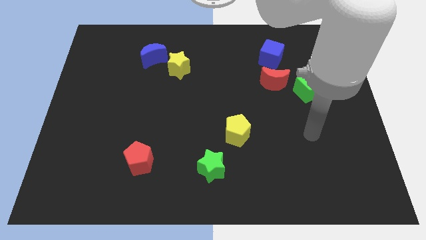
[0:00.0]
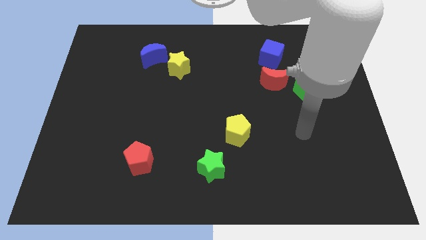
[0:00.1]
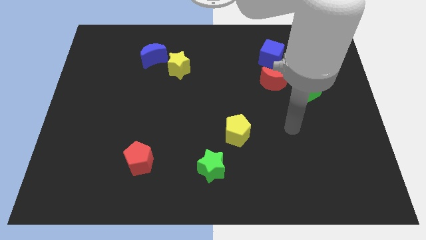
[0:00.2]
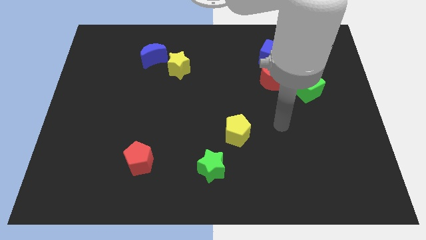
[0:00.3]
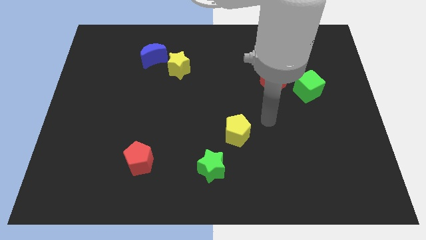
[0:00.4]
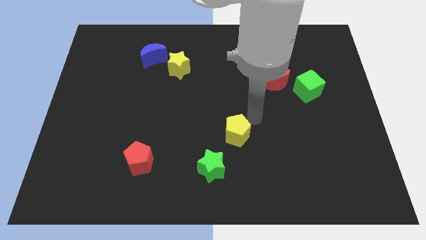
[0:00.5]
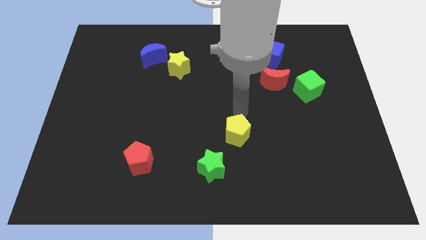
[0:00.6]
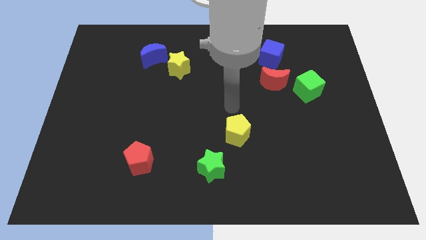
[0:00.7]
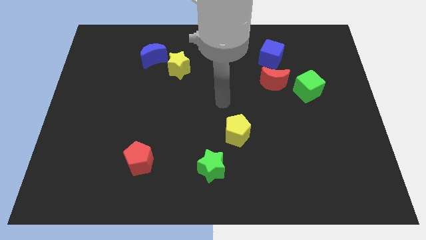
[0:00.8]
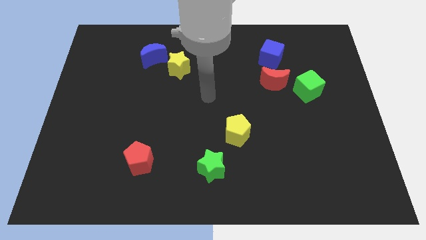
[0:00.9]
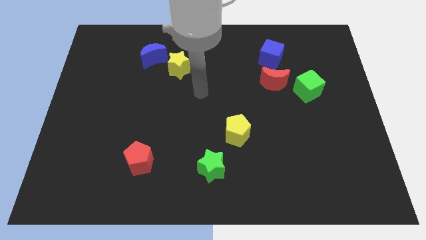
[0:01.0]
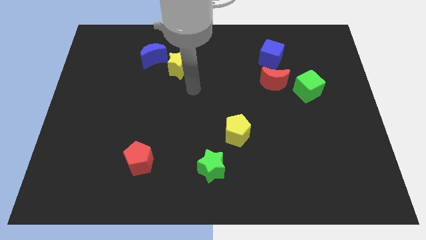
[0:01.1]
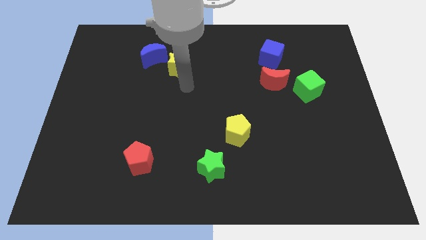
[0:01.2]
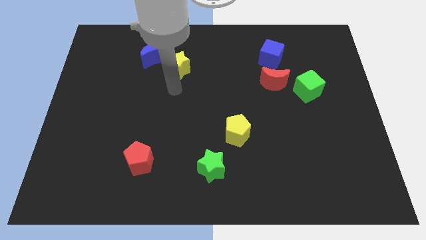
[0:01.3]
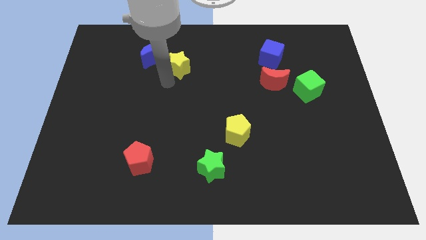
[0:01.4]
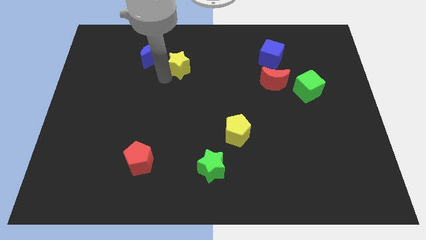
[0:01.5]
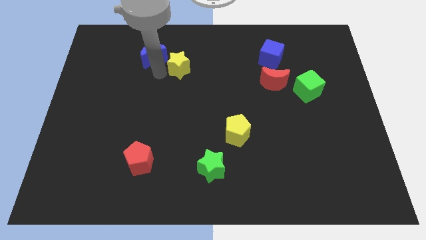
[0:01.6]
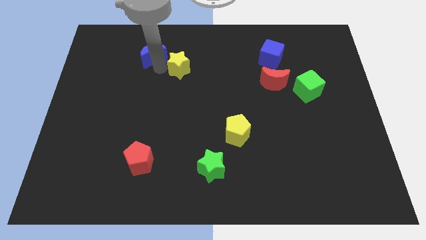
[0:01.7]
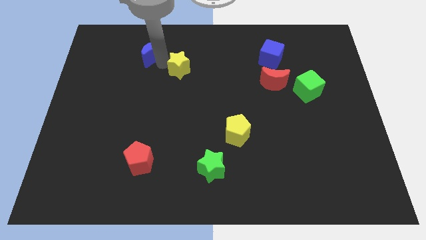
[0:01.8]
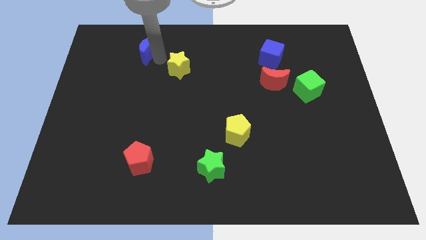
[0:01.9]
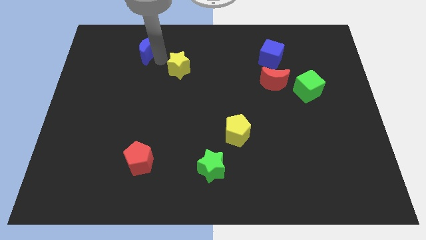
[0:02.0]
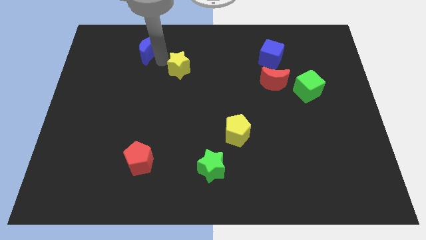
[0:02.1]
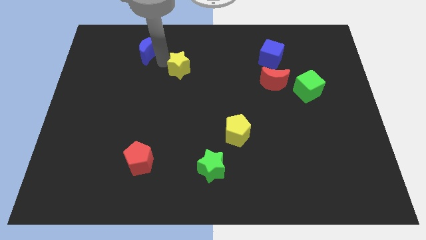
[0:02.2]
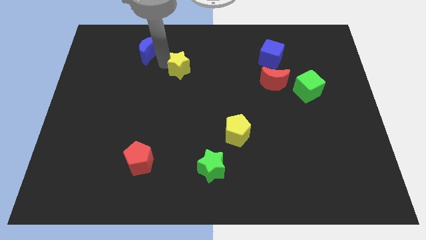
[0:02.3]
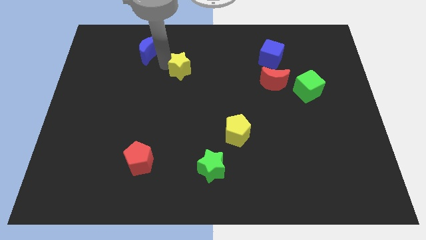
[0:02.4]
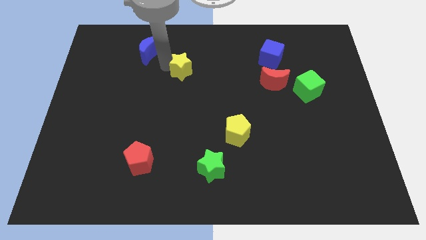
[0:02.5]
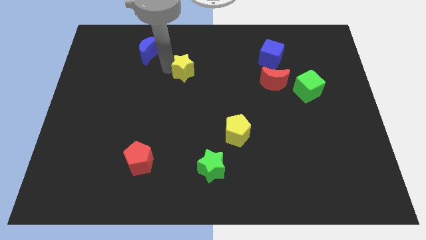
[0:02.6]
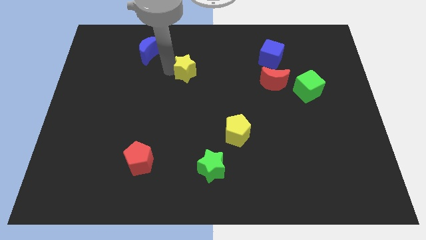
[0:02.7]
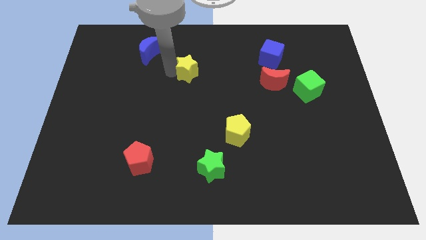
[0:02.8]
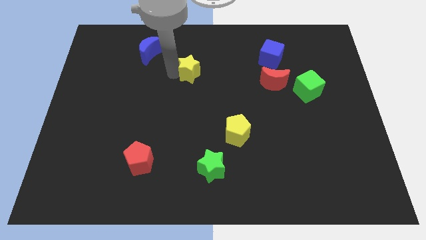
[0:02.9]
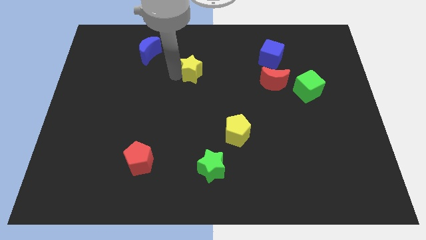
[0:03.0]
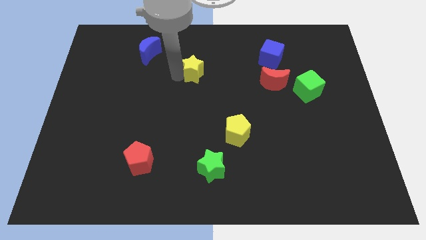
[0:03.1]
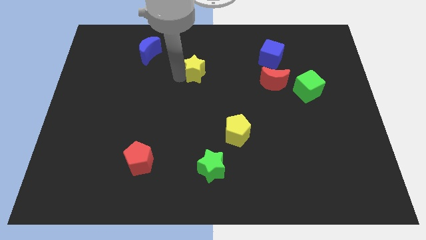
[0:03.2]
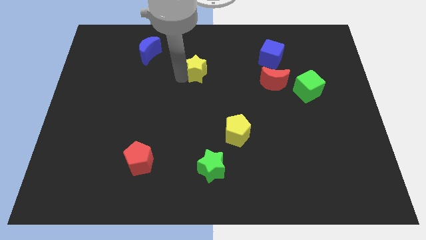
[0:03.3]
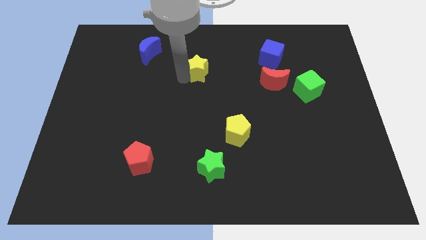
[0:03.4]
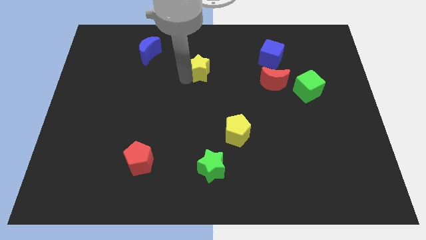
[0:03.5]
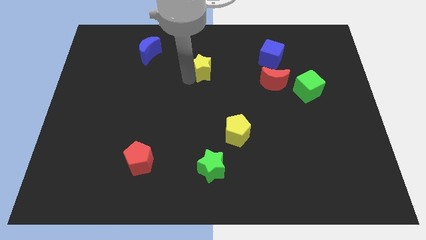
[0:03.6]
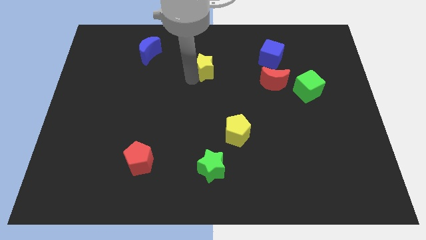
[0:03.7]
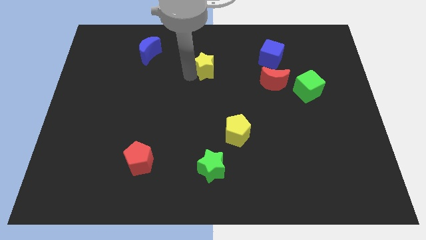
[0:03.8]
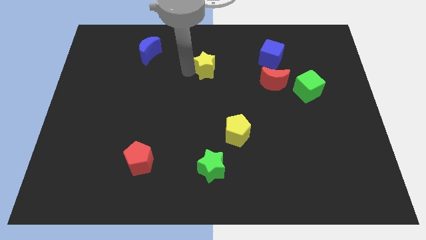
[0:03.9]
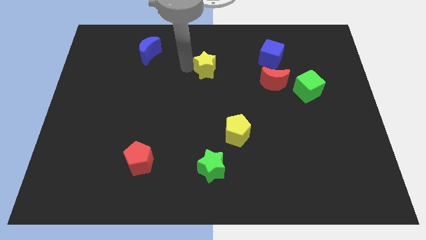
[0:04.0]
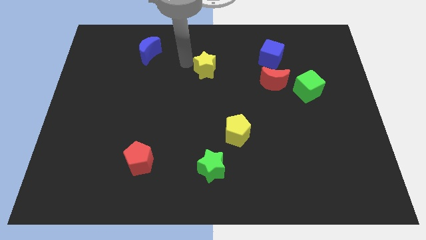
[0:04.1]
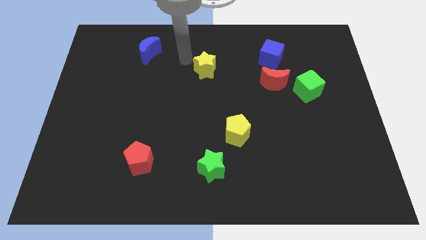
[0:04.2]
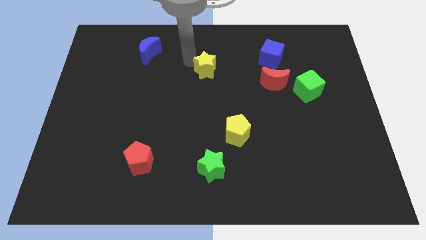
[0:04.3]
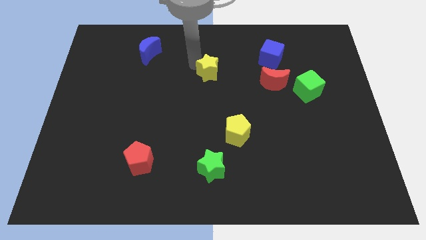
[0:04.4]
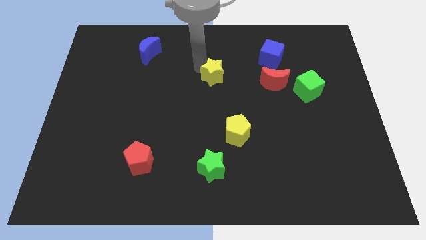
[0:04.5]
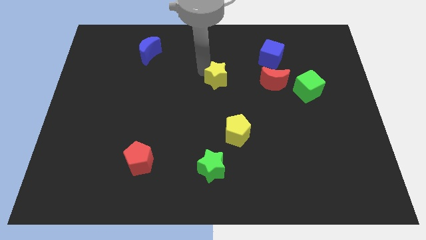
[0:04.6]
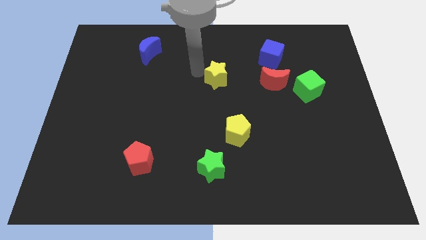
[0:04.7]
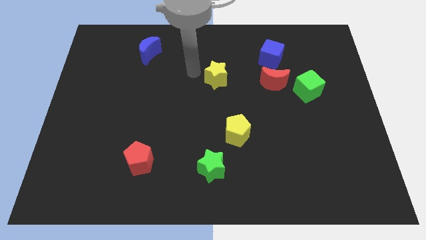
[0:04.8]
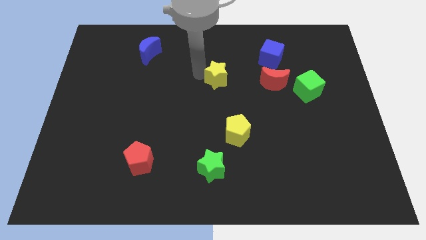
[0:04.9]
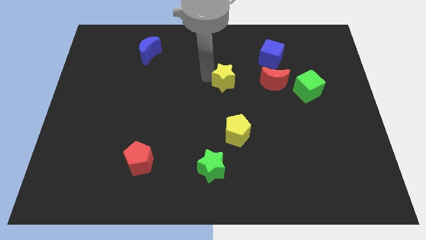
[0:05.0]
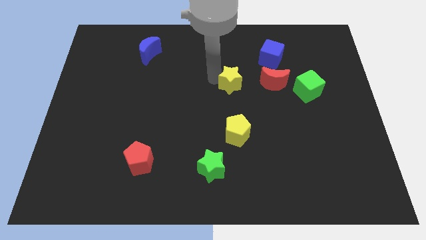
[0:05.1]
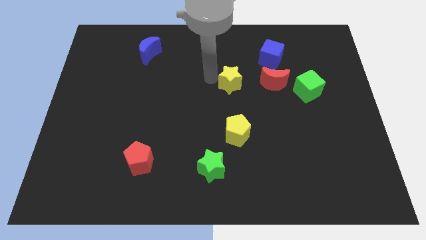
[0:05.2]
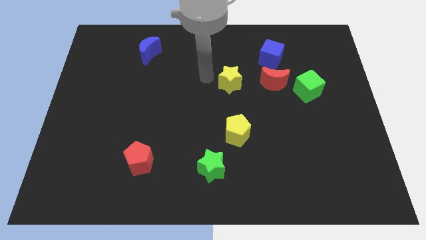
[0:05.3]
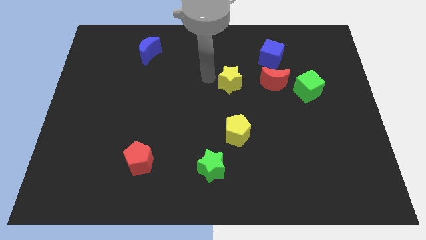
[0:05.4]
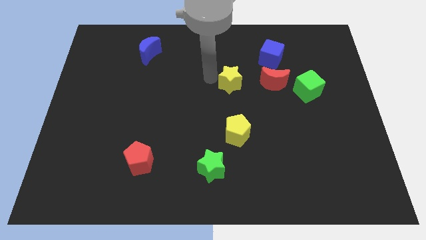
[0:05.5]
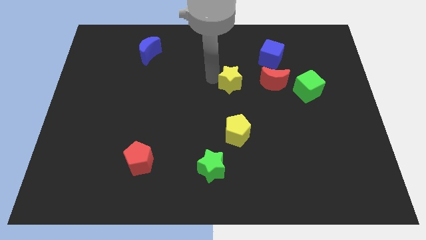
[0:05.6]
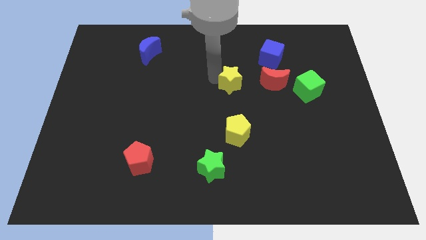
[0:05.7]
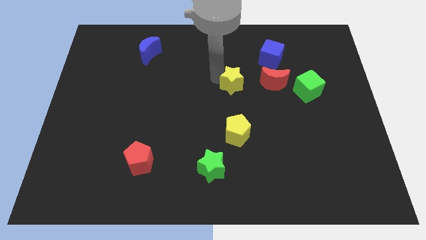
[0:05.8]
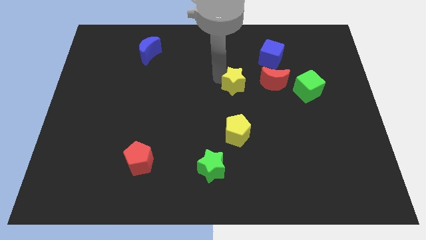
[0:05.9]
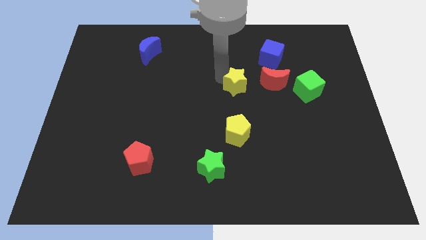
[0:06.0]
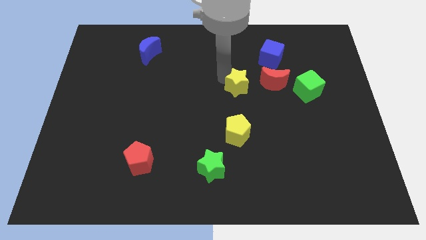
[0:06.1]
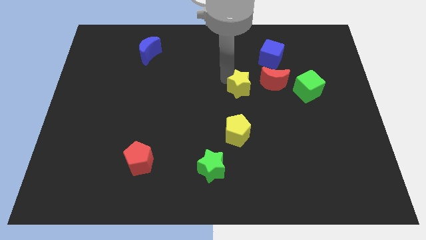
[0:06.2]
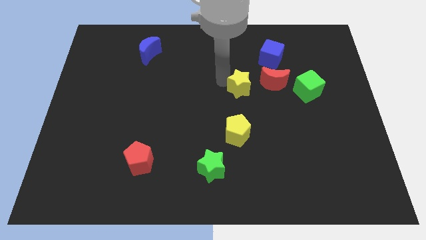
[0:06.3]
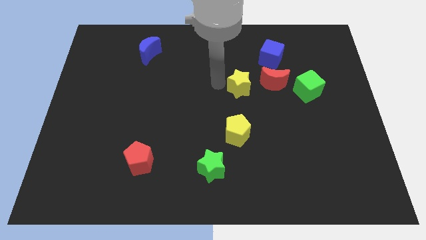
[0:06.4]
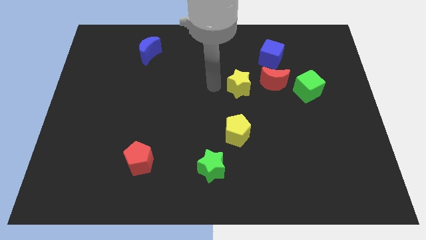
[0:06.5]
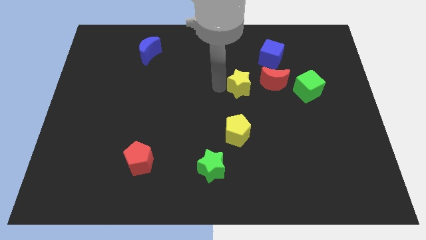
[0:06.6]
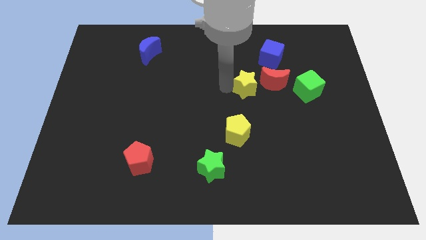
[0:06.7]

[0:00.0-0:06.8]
slide the yellow star to the left of the green cube
